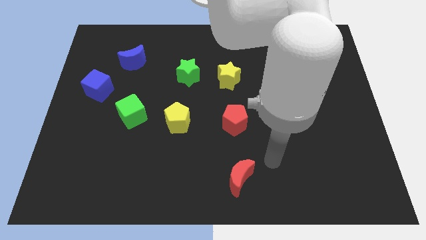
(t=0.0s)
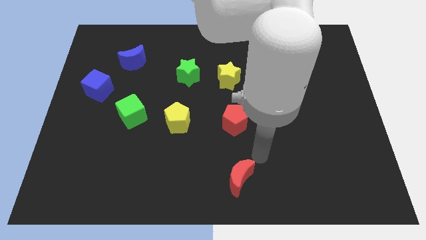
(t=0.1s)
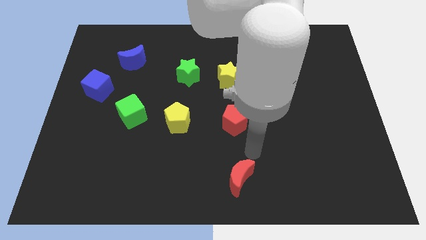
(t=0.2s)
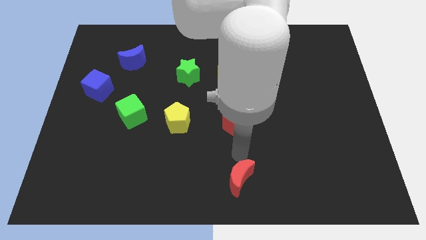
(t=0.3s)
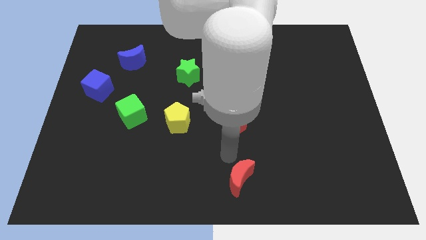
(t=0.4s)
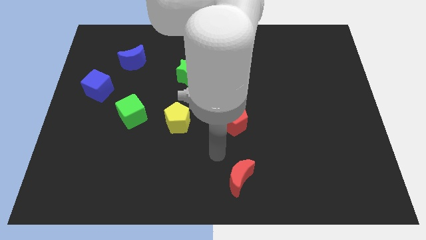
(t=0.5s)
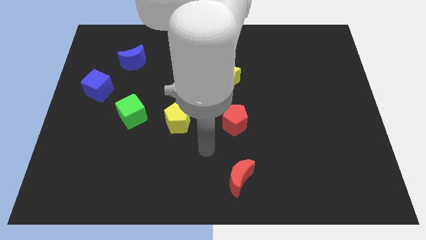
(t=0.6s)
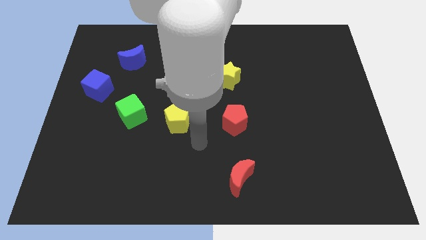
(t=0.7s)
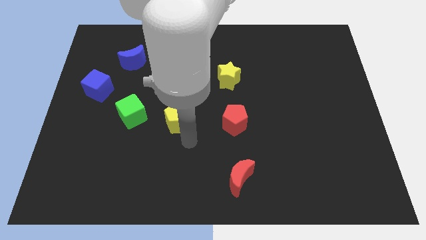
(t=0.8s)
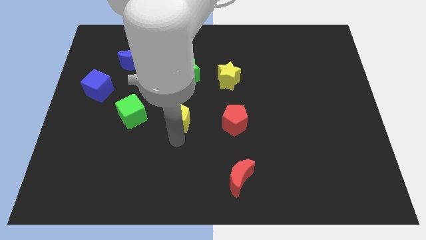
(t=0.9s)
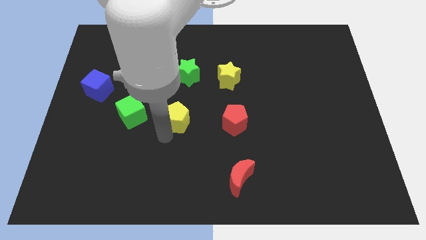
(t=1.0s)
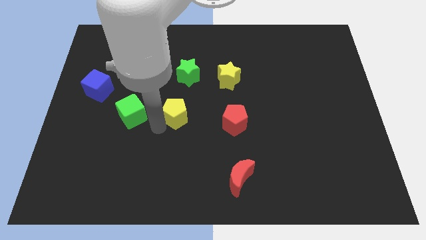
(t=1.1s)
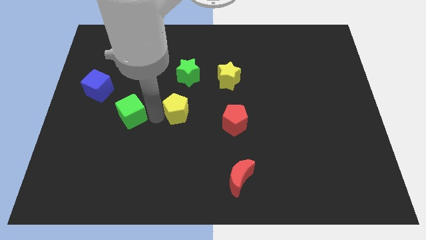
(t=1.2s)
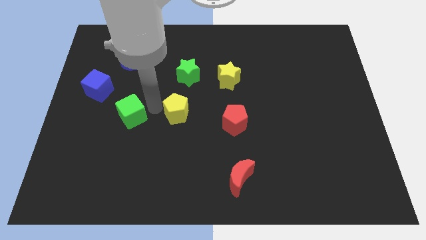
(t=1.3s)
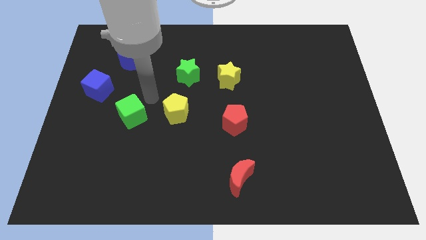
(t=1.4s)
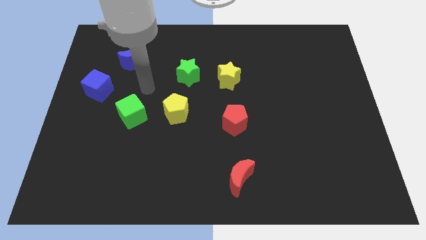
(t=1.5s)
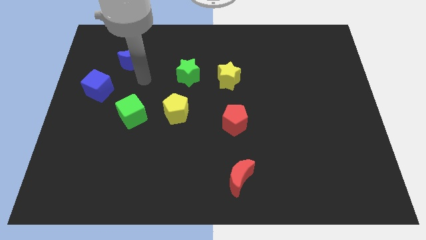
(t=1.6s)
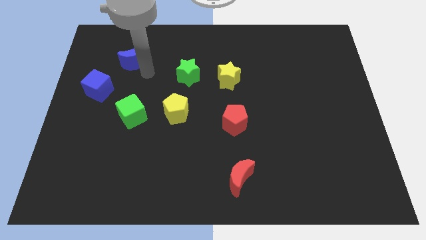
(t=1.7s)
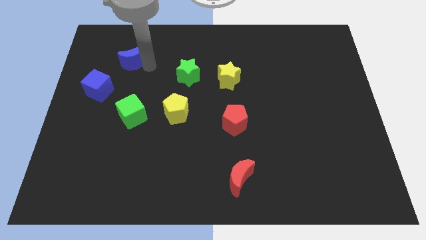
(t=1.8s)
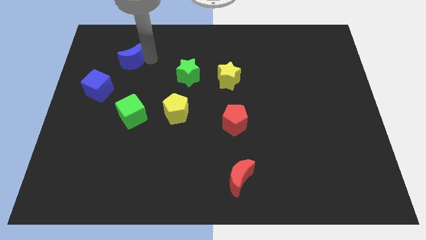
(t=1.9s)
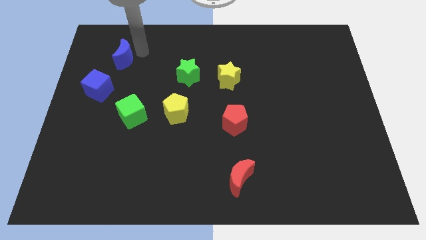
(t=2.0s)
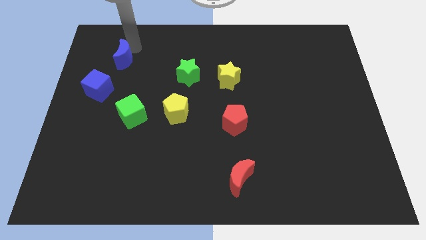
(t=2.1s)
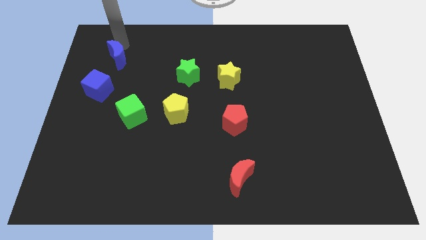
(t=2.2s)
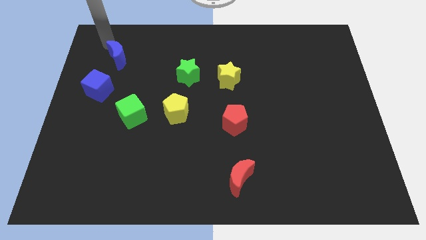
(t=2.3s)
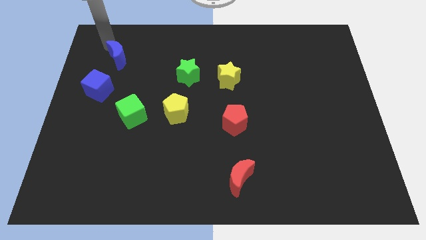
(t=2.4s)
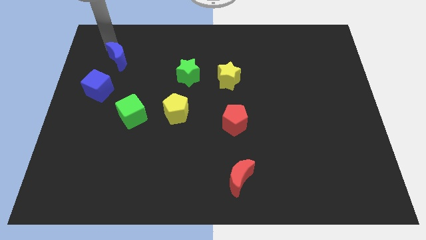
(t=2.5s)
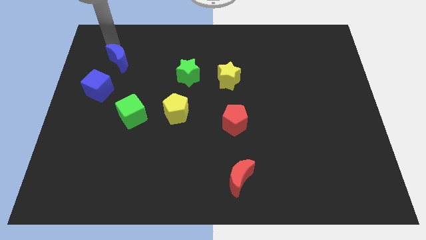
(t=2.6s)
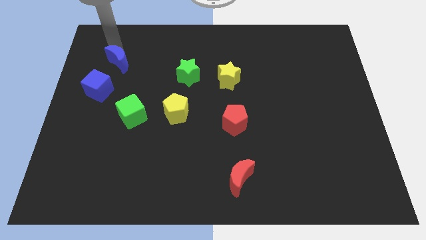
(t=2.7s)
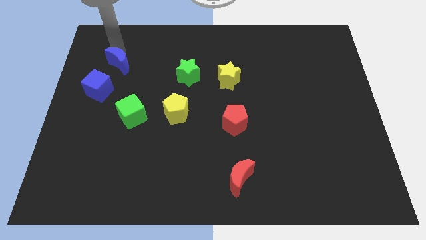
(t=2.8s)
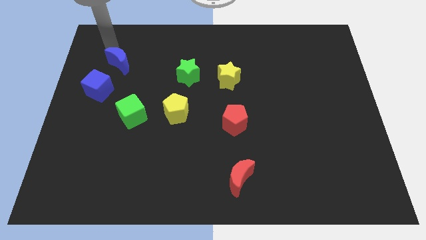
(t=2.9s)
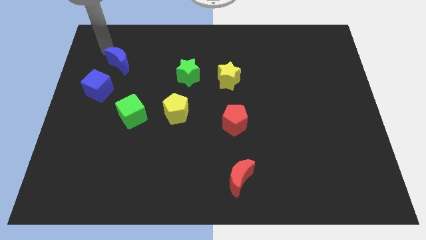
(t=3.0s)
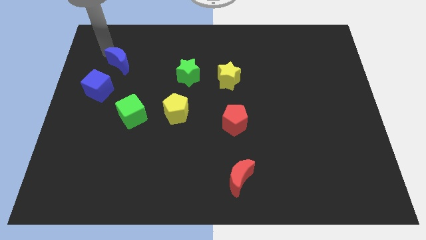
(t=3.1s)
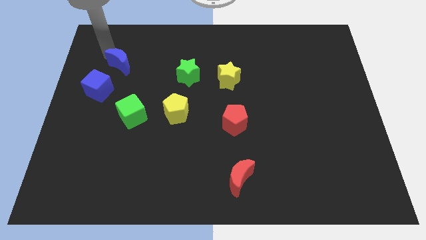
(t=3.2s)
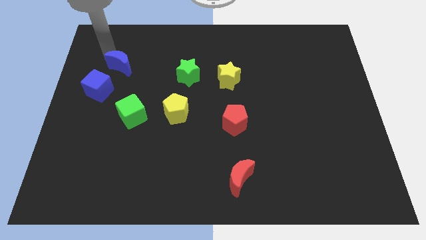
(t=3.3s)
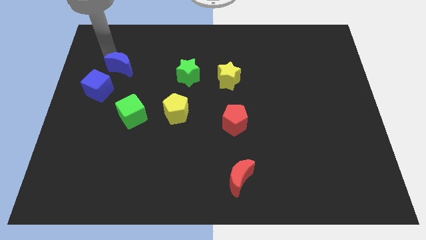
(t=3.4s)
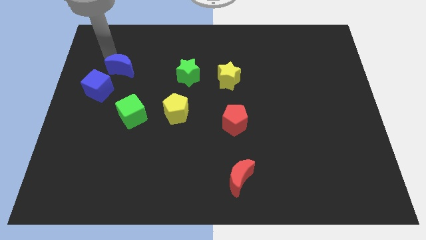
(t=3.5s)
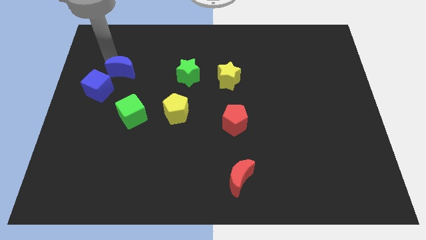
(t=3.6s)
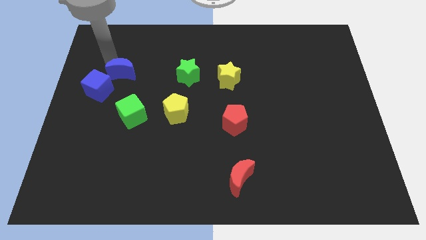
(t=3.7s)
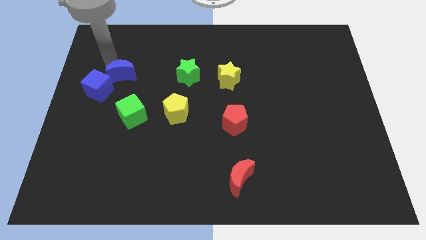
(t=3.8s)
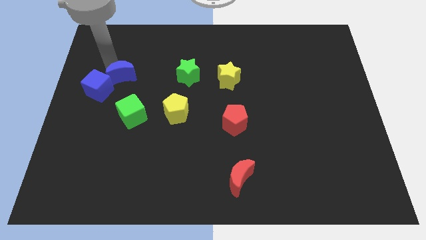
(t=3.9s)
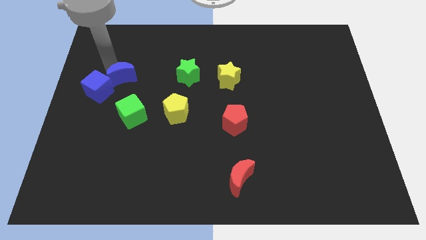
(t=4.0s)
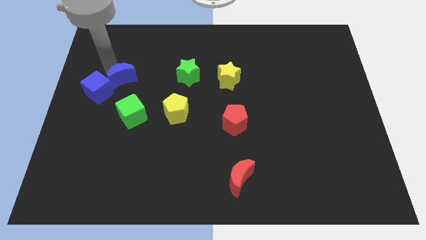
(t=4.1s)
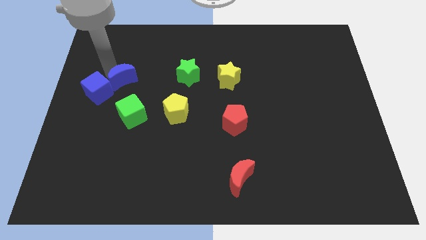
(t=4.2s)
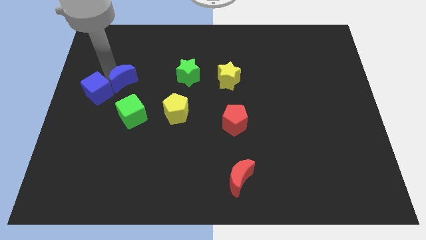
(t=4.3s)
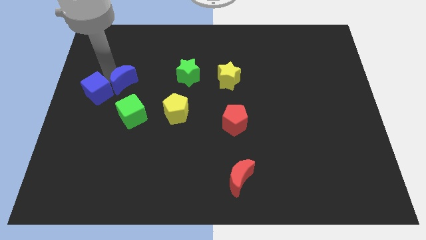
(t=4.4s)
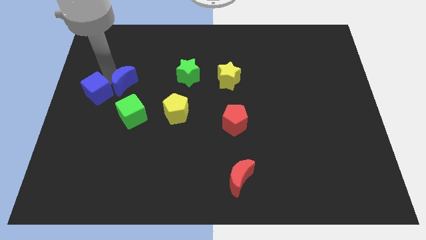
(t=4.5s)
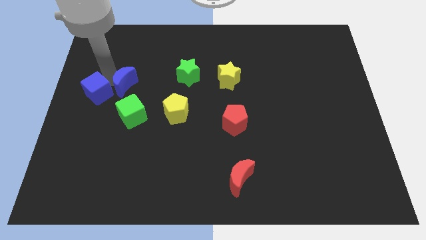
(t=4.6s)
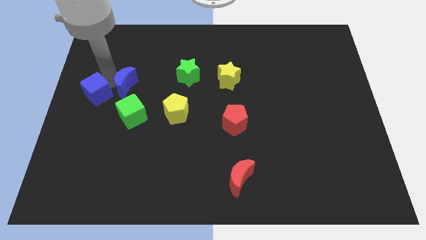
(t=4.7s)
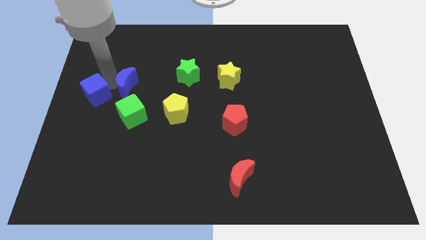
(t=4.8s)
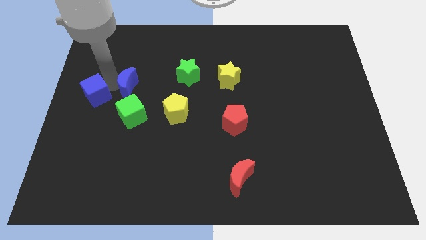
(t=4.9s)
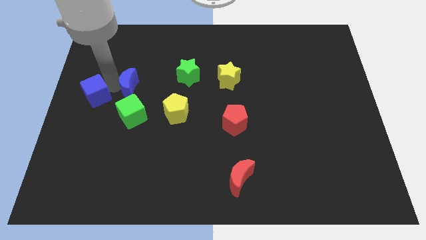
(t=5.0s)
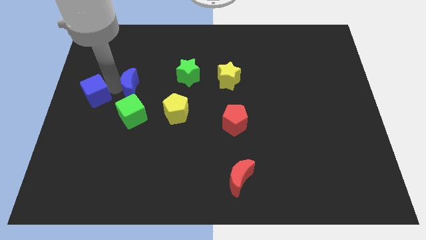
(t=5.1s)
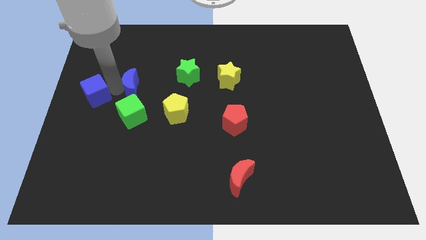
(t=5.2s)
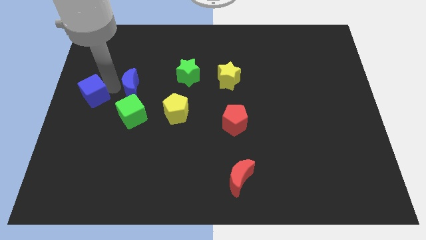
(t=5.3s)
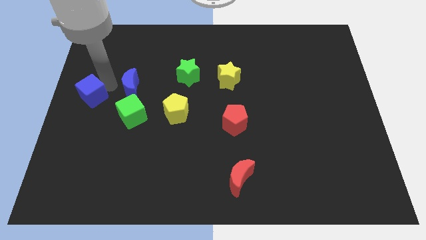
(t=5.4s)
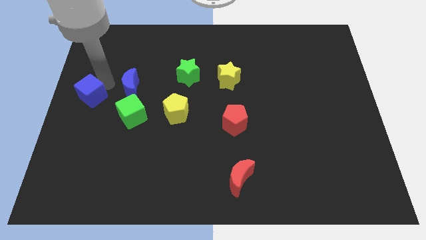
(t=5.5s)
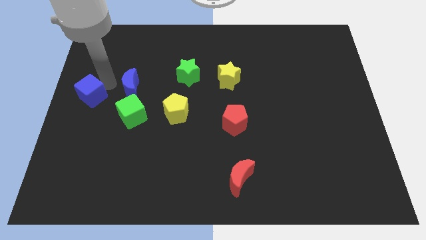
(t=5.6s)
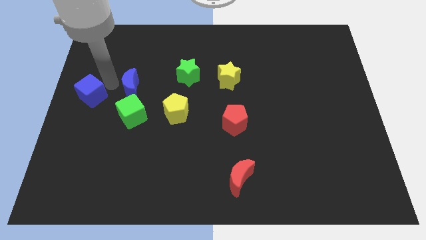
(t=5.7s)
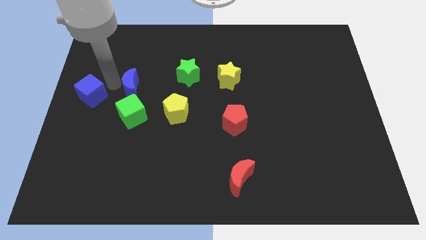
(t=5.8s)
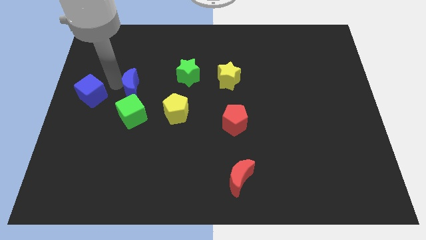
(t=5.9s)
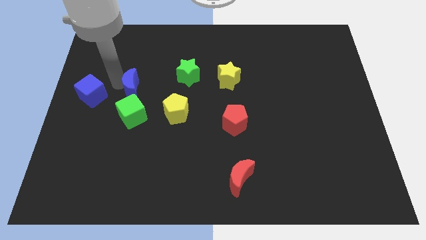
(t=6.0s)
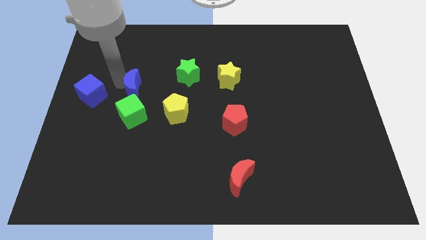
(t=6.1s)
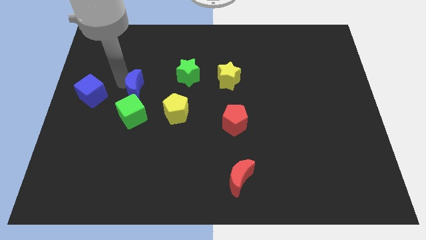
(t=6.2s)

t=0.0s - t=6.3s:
push the blue moon to the top left side of the yellow pentagon

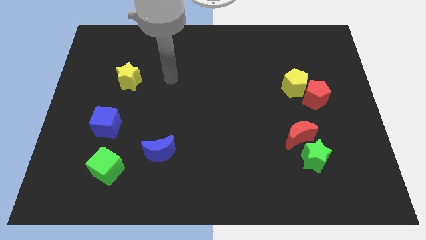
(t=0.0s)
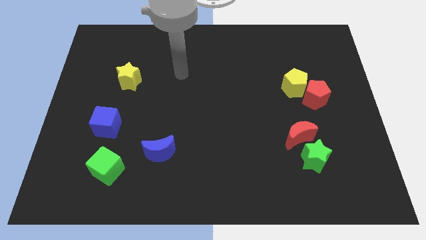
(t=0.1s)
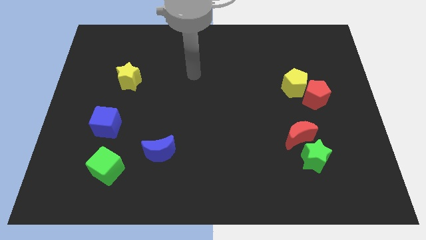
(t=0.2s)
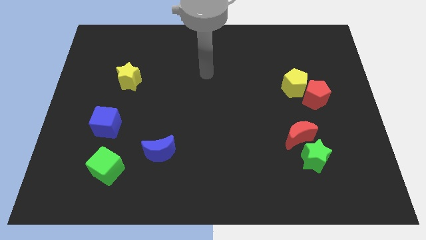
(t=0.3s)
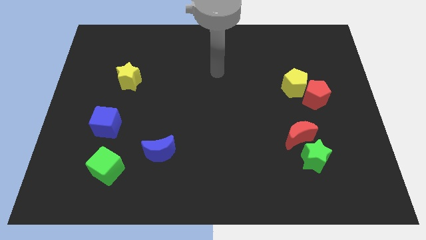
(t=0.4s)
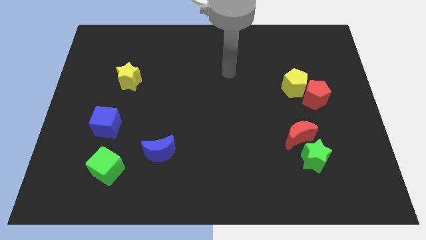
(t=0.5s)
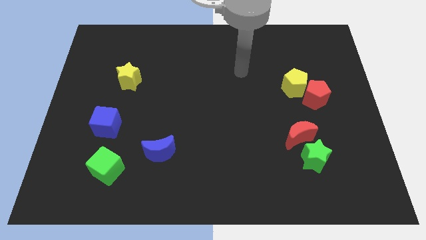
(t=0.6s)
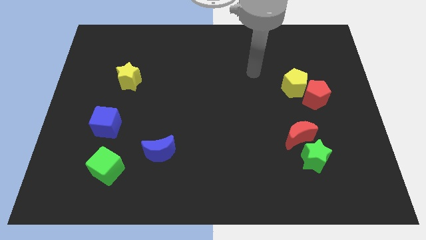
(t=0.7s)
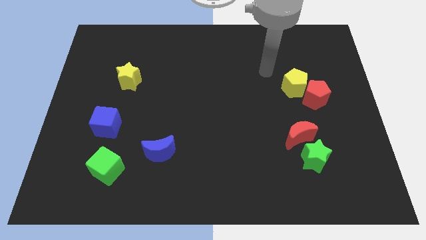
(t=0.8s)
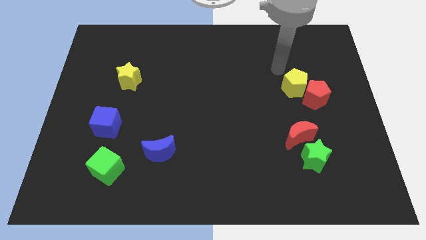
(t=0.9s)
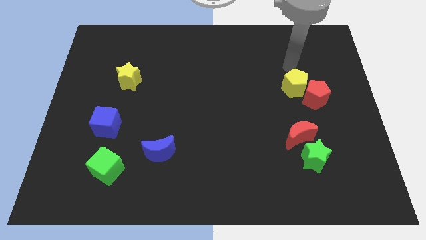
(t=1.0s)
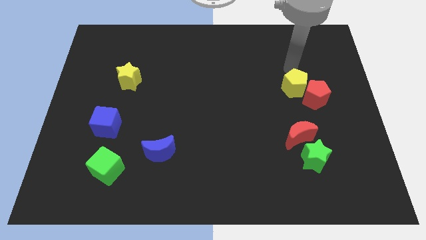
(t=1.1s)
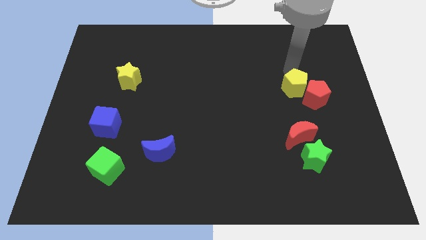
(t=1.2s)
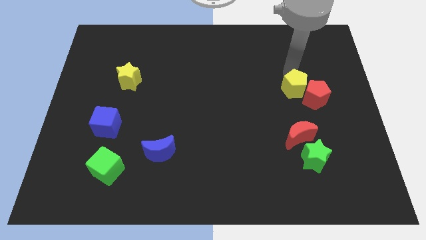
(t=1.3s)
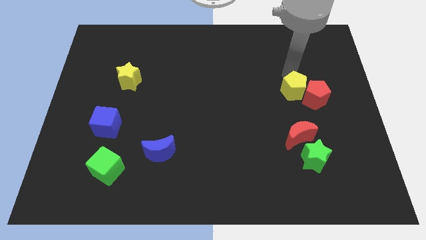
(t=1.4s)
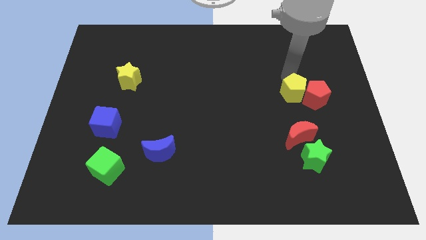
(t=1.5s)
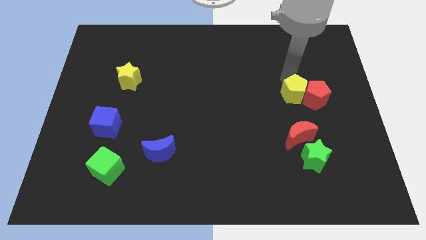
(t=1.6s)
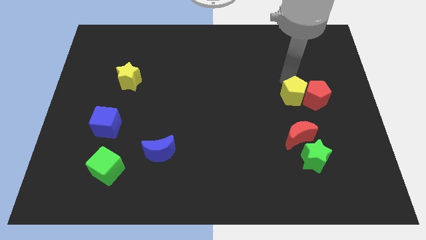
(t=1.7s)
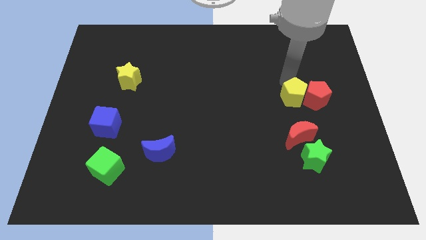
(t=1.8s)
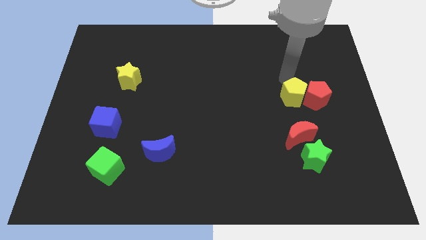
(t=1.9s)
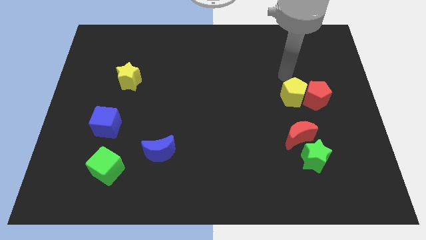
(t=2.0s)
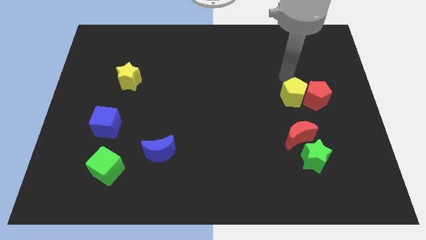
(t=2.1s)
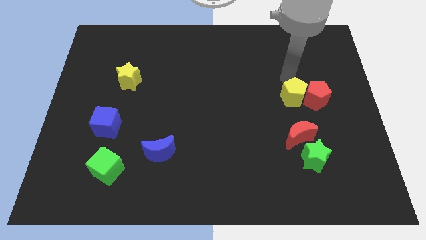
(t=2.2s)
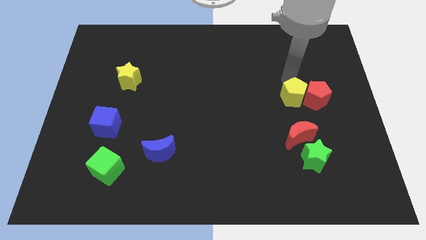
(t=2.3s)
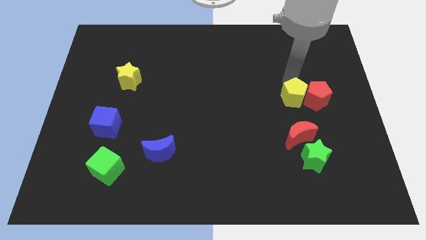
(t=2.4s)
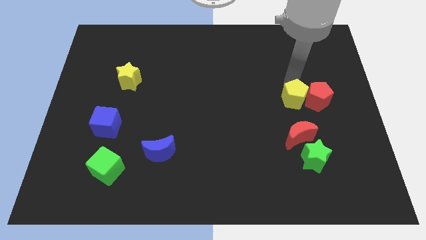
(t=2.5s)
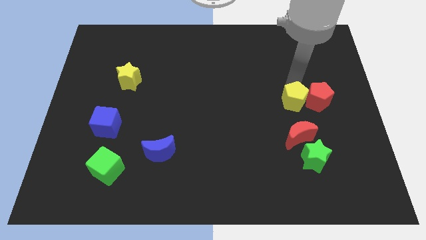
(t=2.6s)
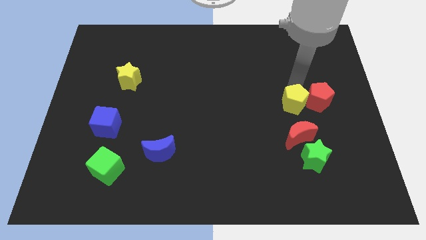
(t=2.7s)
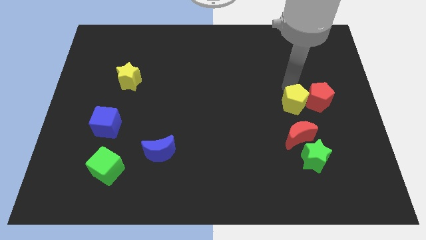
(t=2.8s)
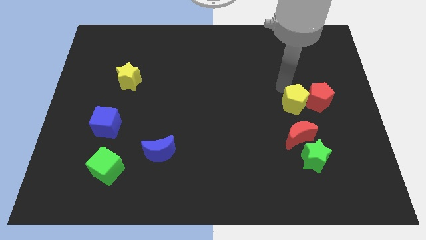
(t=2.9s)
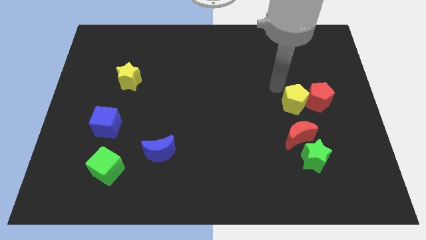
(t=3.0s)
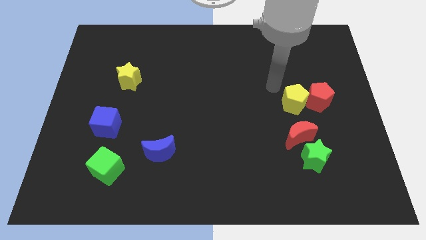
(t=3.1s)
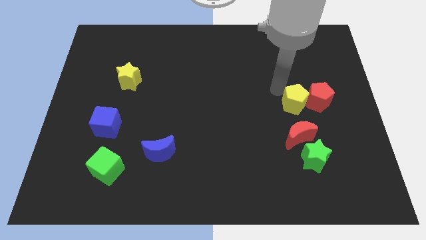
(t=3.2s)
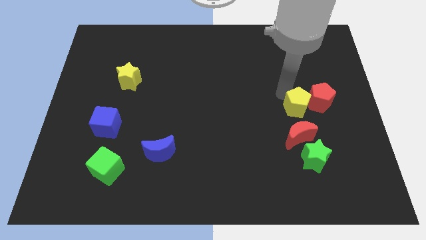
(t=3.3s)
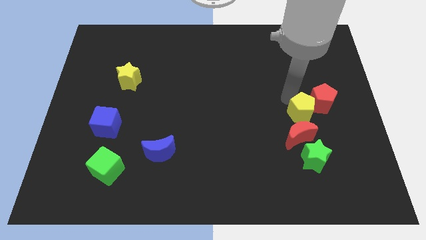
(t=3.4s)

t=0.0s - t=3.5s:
push the yellow pentagon to the top right of the red moon
